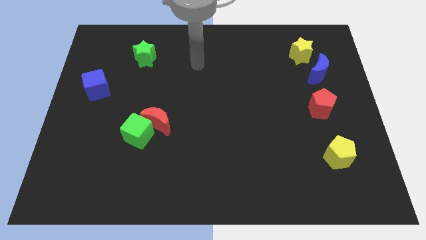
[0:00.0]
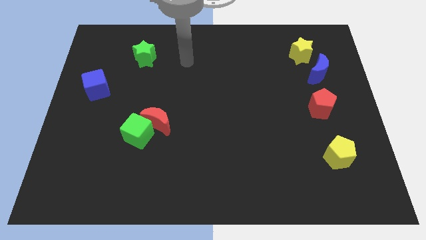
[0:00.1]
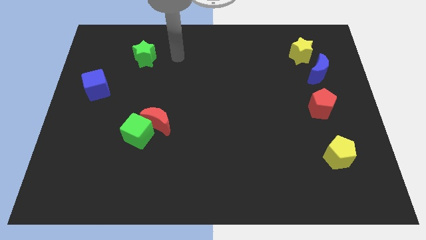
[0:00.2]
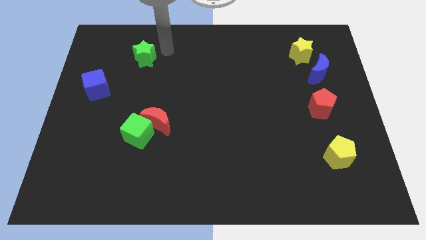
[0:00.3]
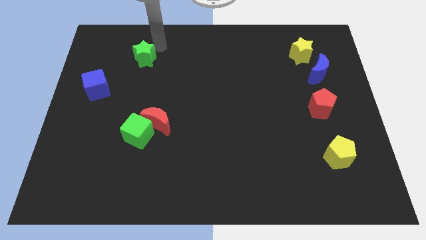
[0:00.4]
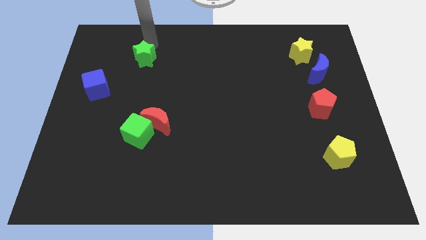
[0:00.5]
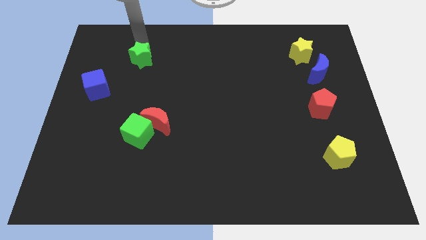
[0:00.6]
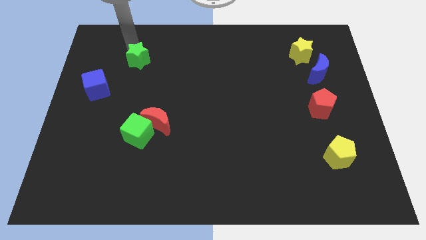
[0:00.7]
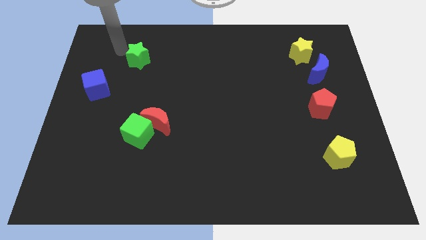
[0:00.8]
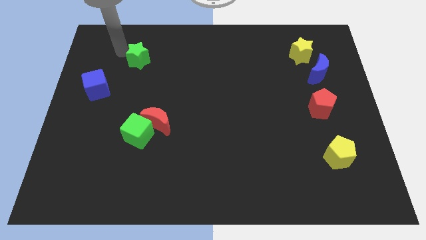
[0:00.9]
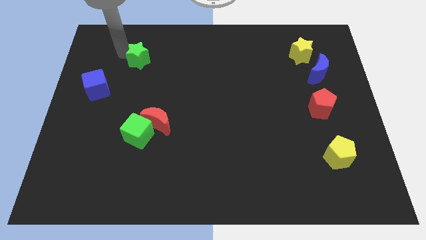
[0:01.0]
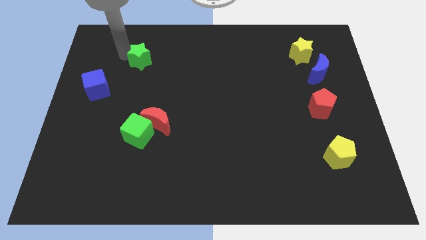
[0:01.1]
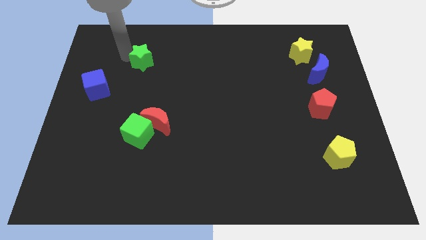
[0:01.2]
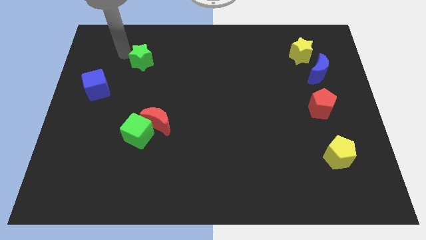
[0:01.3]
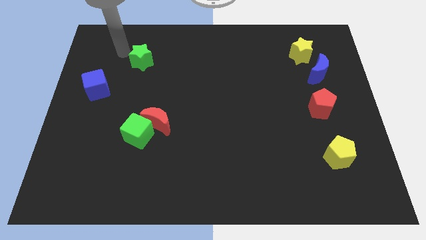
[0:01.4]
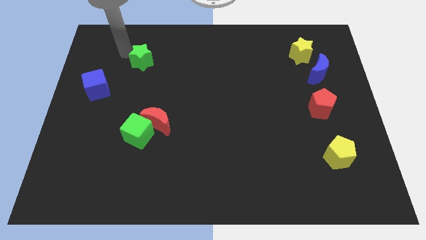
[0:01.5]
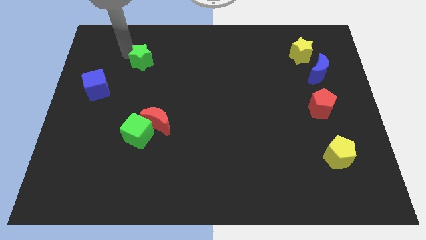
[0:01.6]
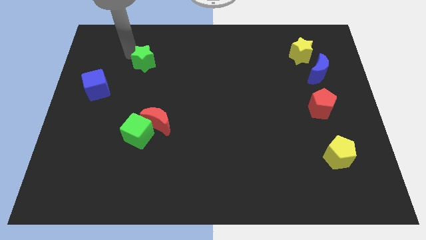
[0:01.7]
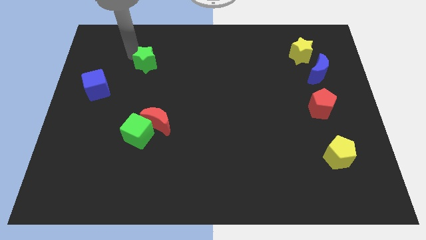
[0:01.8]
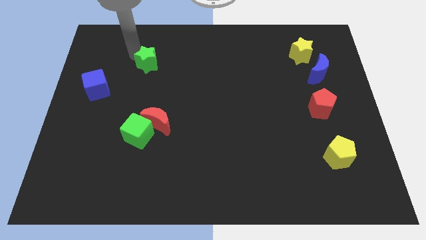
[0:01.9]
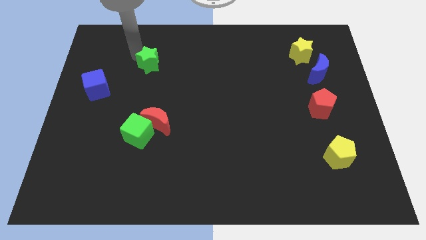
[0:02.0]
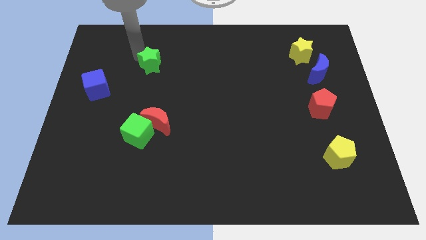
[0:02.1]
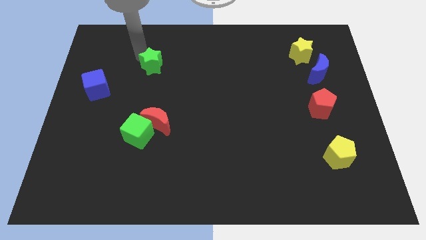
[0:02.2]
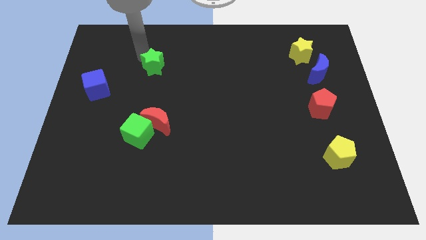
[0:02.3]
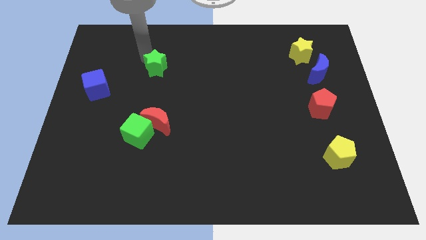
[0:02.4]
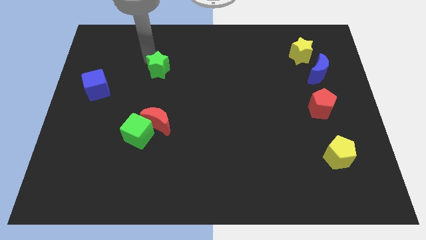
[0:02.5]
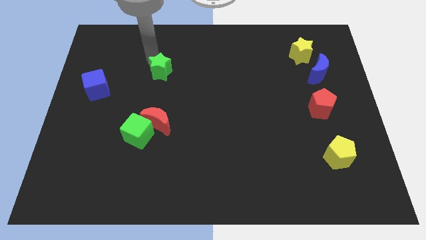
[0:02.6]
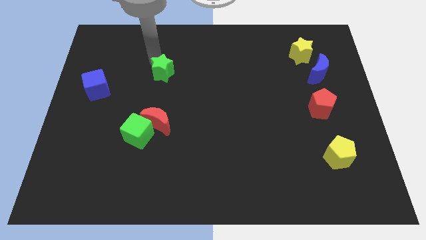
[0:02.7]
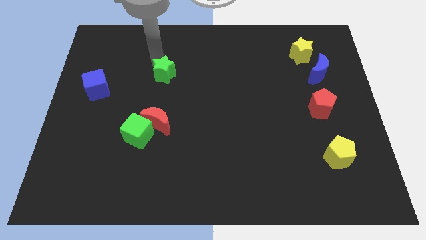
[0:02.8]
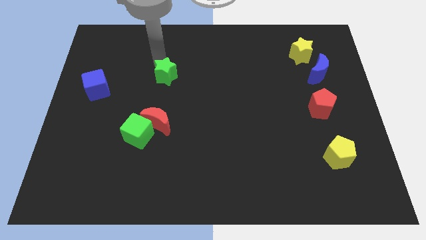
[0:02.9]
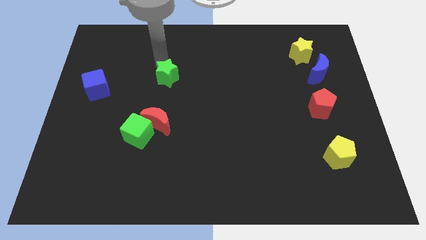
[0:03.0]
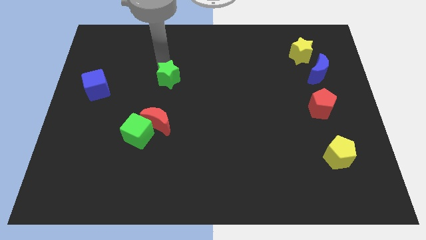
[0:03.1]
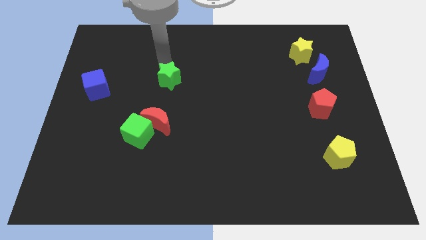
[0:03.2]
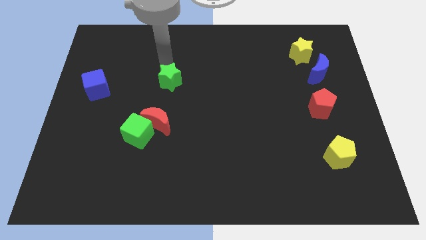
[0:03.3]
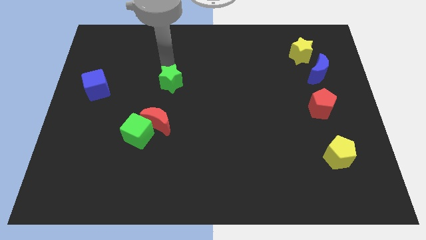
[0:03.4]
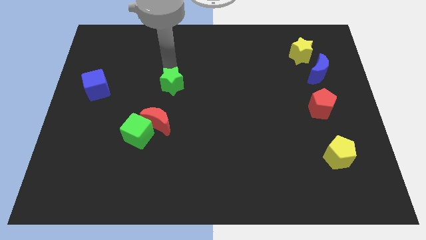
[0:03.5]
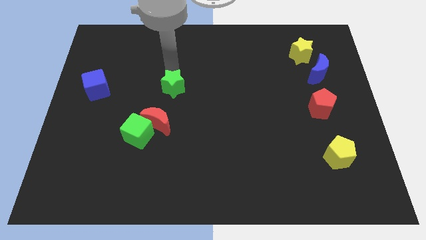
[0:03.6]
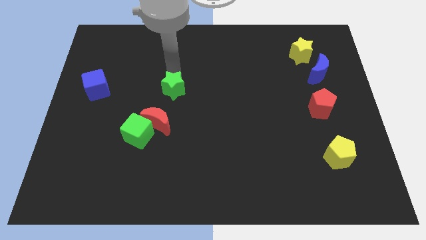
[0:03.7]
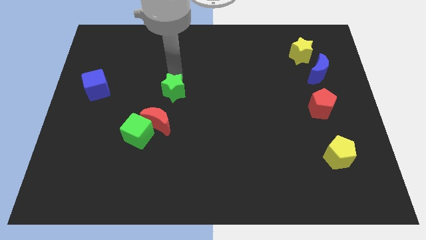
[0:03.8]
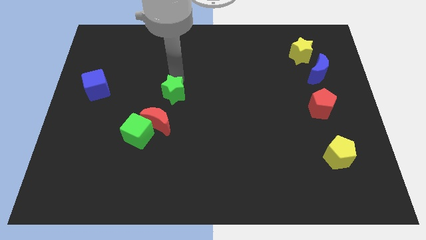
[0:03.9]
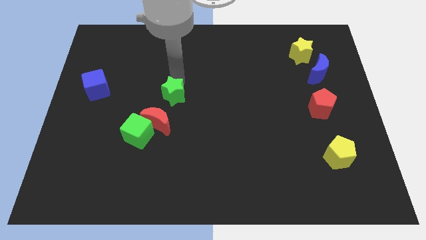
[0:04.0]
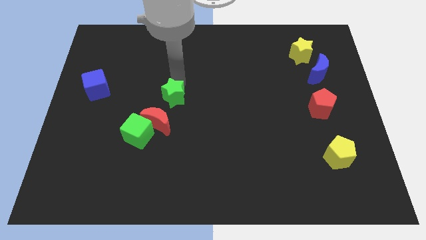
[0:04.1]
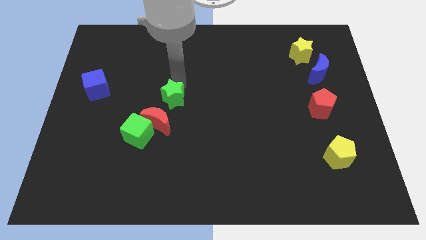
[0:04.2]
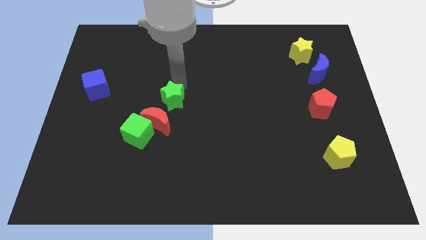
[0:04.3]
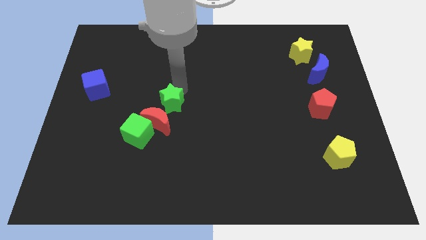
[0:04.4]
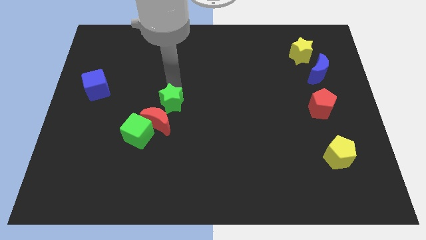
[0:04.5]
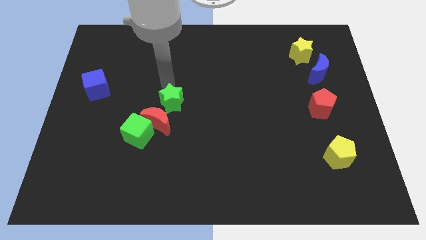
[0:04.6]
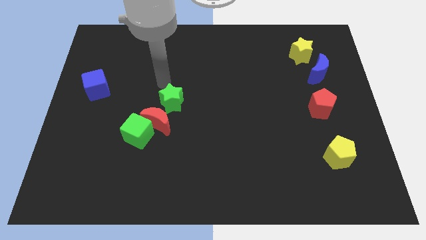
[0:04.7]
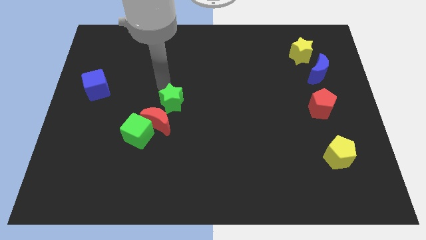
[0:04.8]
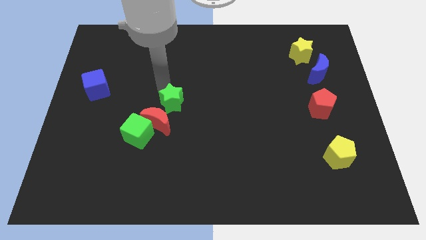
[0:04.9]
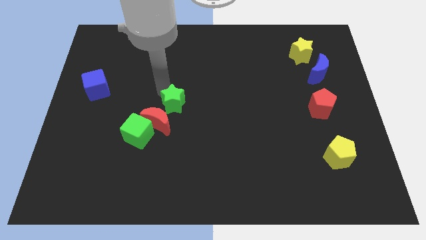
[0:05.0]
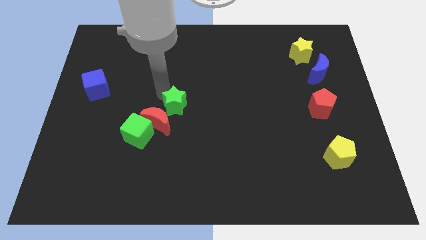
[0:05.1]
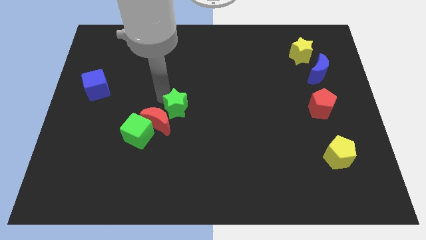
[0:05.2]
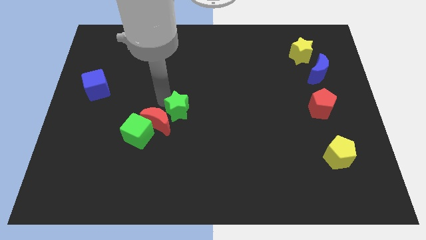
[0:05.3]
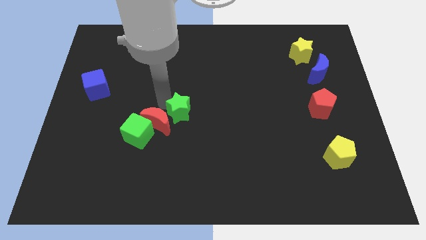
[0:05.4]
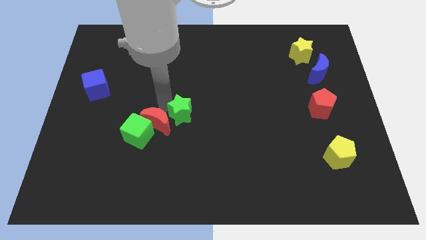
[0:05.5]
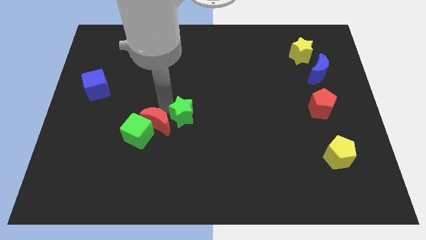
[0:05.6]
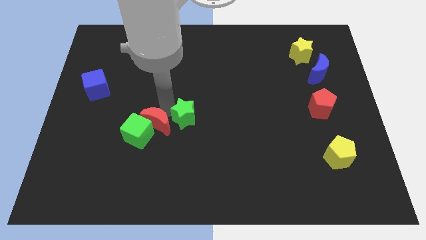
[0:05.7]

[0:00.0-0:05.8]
slide the green star to the right side of the green cube

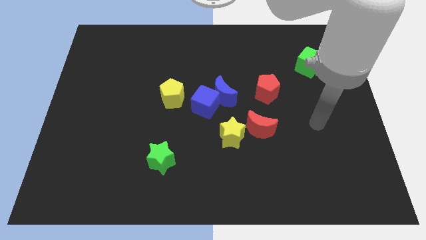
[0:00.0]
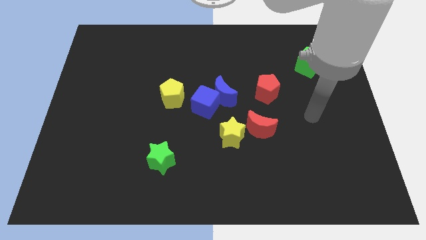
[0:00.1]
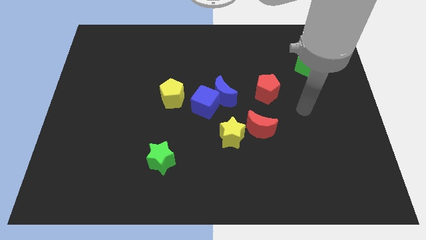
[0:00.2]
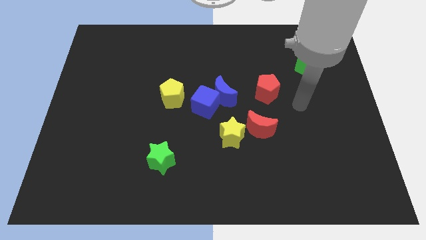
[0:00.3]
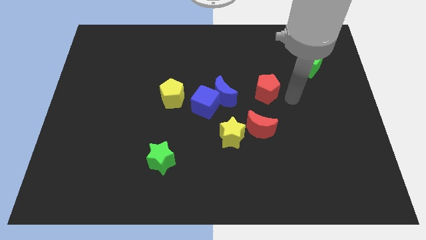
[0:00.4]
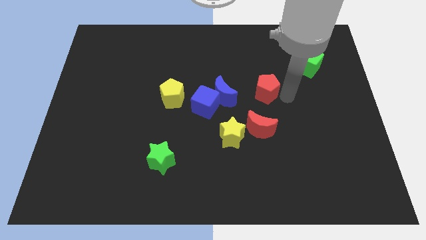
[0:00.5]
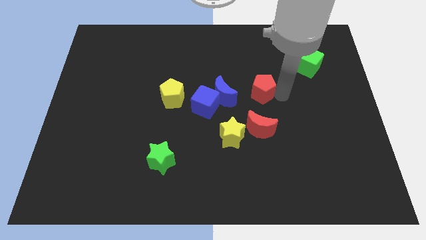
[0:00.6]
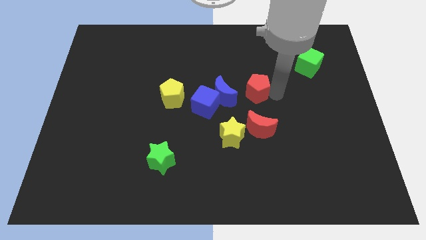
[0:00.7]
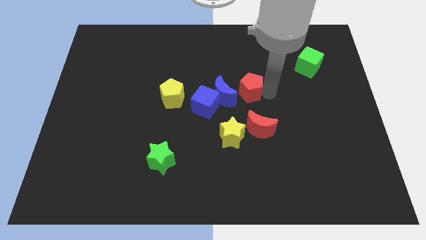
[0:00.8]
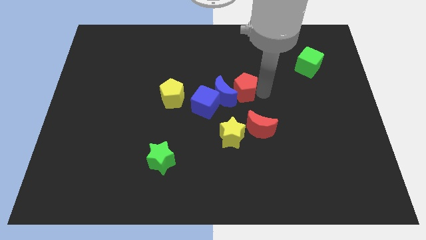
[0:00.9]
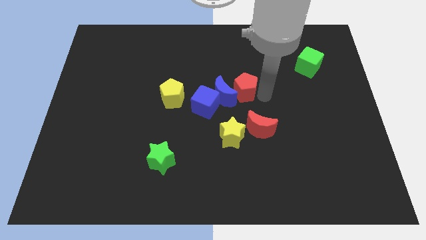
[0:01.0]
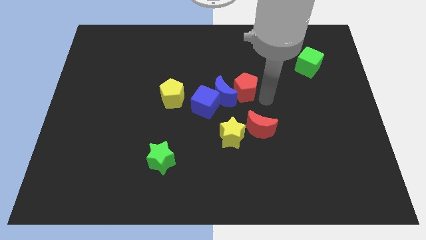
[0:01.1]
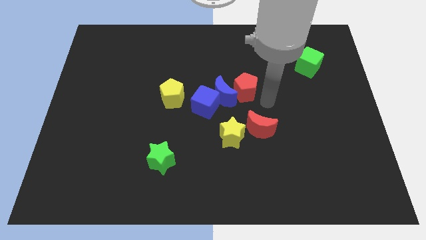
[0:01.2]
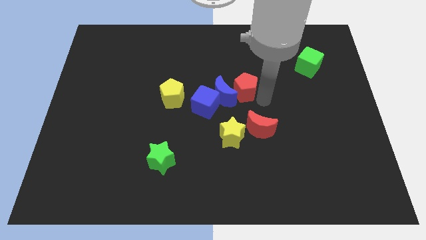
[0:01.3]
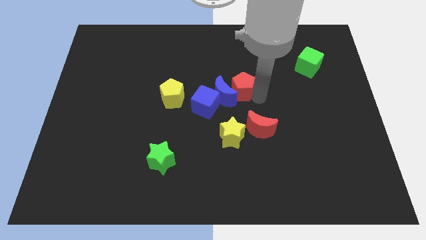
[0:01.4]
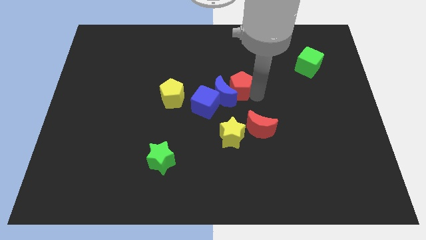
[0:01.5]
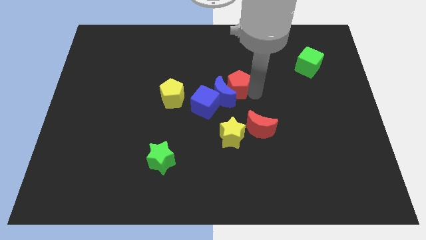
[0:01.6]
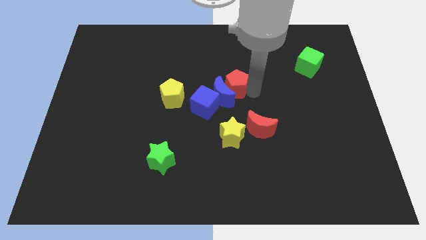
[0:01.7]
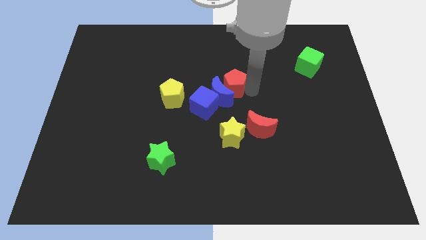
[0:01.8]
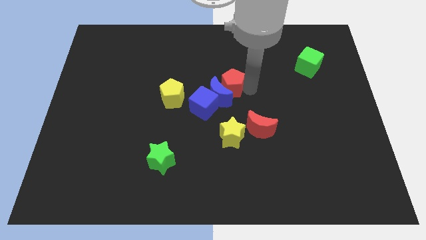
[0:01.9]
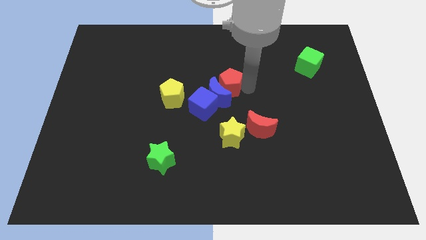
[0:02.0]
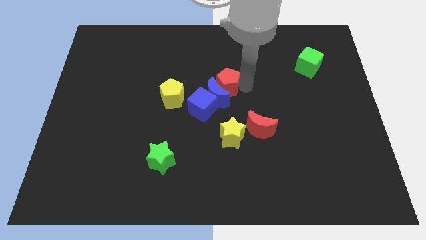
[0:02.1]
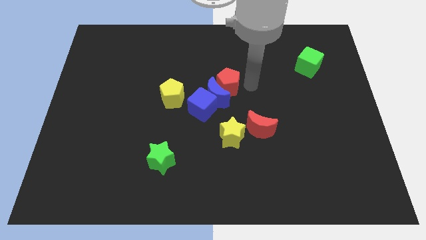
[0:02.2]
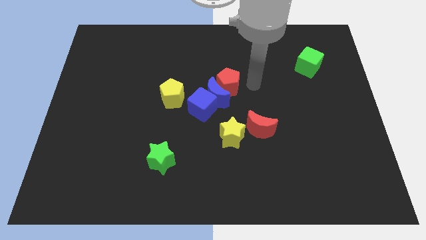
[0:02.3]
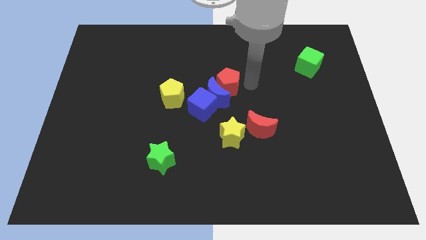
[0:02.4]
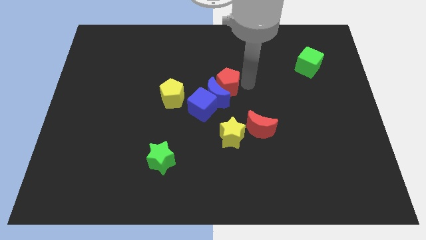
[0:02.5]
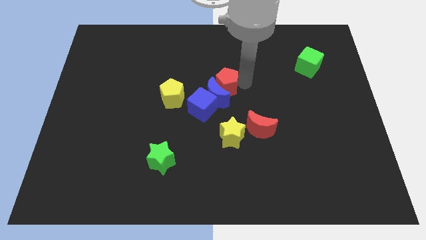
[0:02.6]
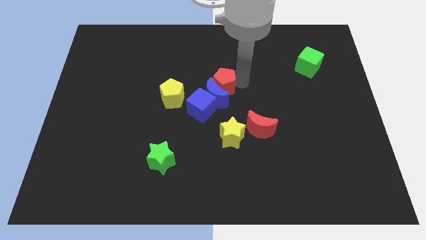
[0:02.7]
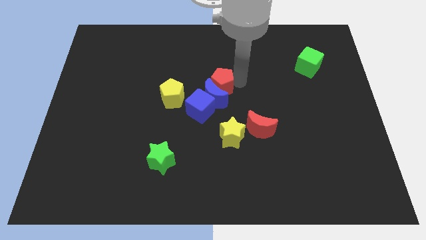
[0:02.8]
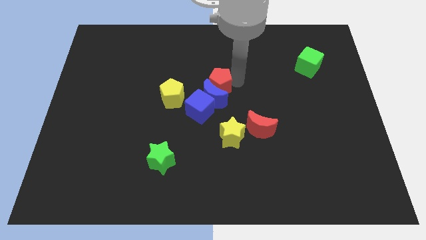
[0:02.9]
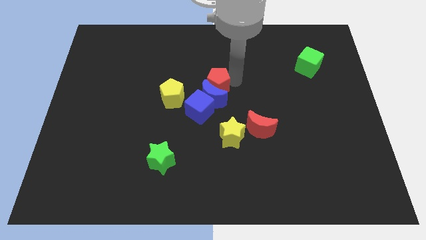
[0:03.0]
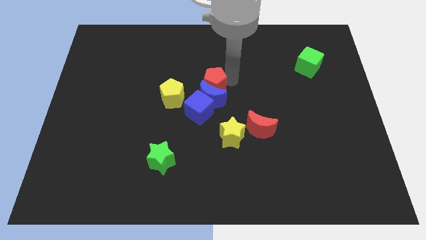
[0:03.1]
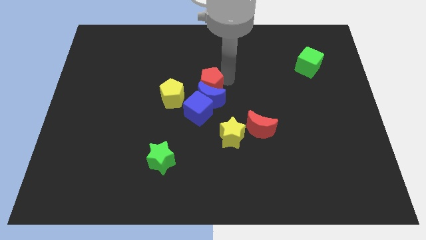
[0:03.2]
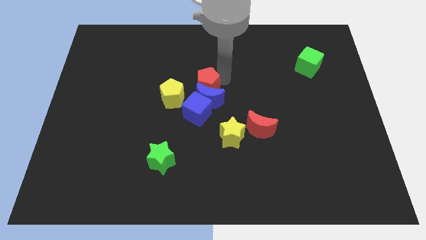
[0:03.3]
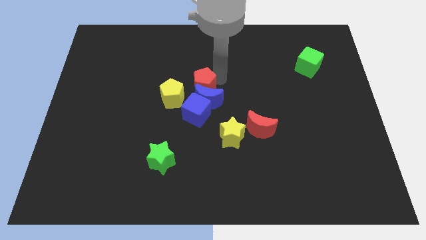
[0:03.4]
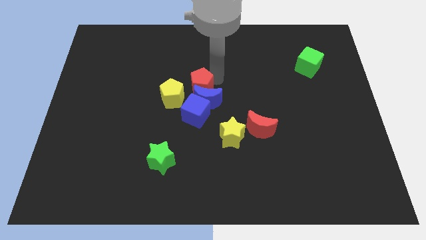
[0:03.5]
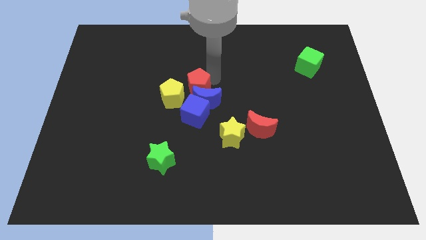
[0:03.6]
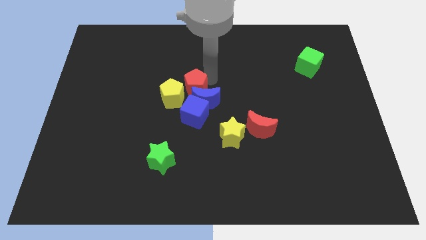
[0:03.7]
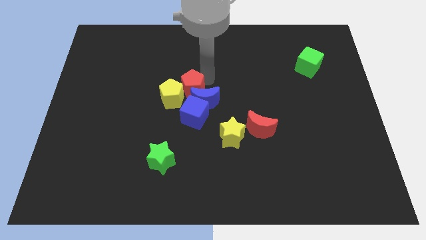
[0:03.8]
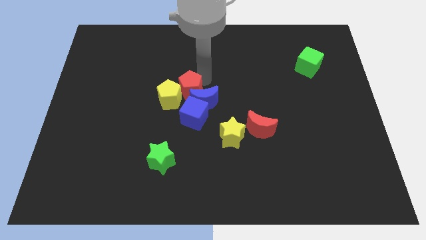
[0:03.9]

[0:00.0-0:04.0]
put the red pentagon diagonally up and to the left of the blue cube
